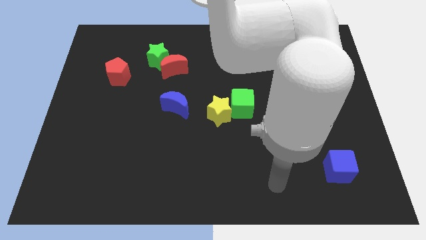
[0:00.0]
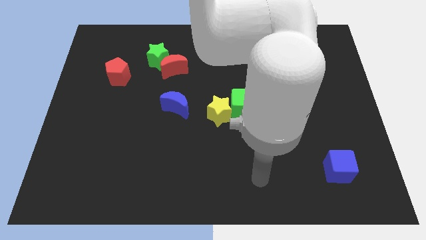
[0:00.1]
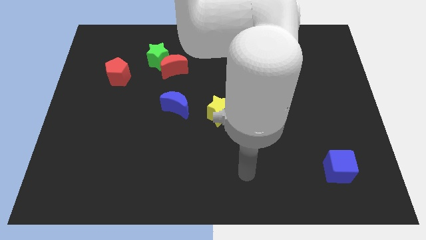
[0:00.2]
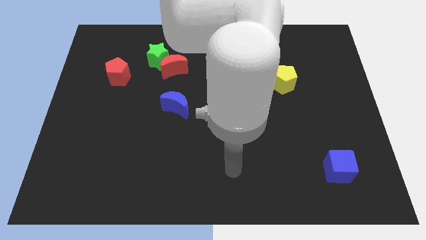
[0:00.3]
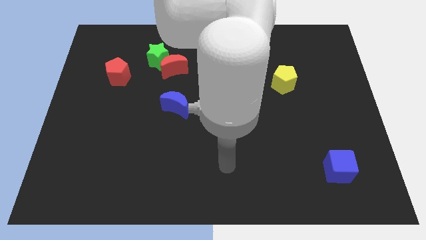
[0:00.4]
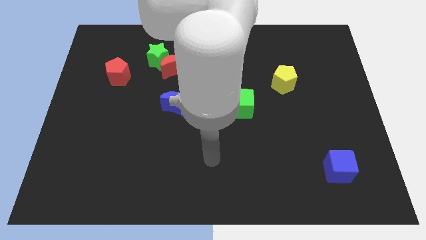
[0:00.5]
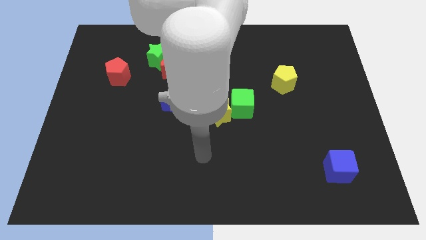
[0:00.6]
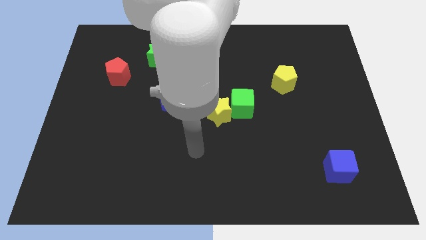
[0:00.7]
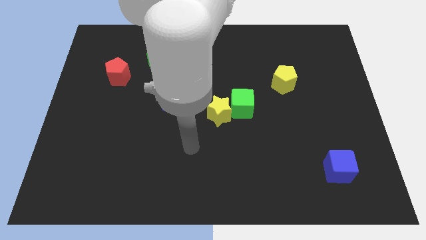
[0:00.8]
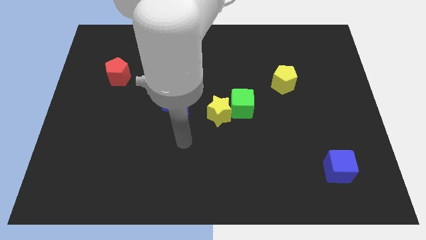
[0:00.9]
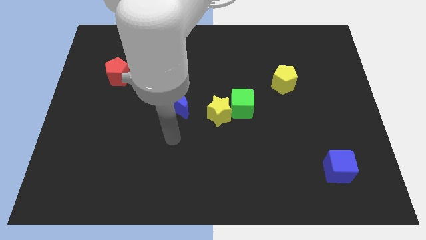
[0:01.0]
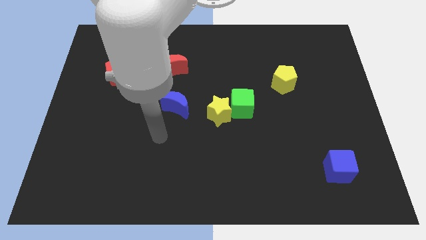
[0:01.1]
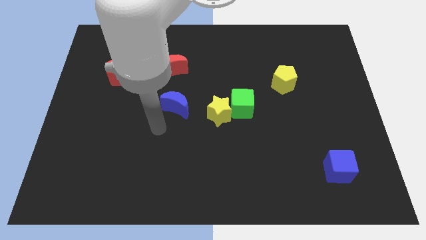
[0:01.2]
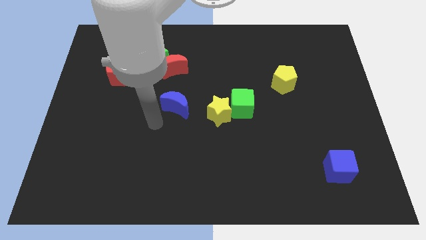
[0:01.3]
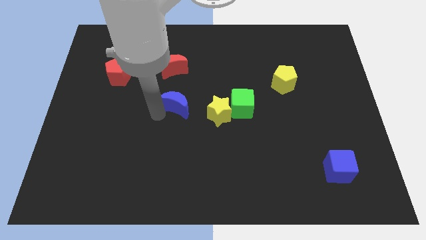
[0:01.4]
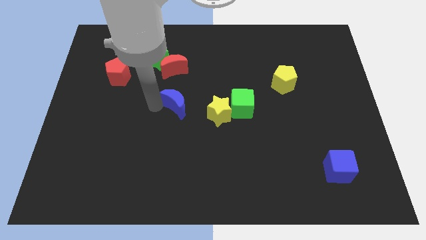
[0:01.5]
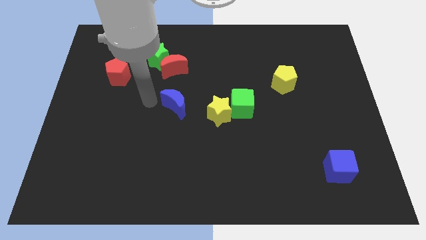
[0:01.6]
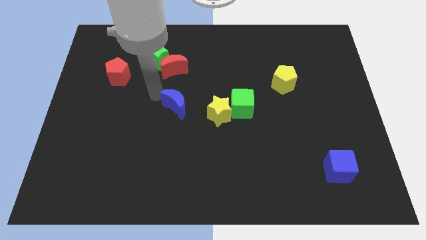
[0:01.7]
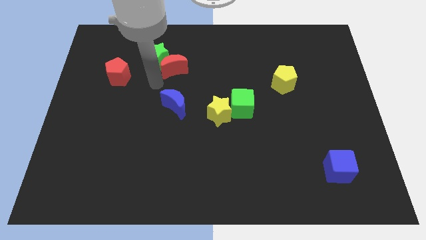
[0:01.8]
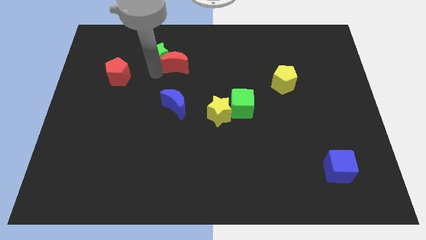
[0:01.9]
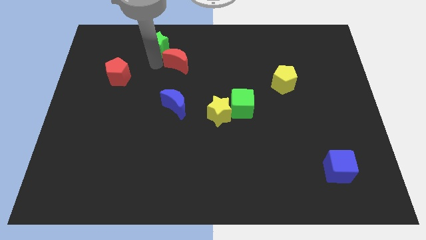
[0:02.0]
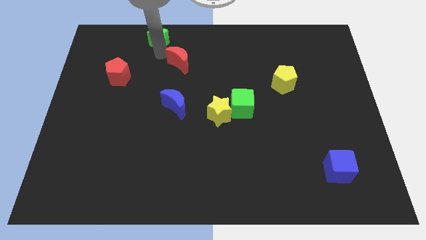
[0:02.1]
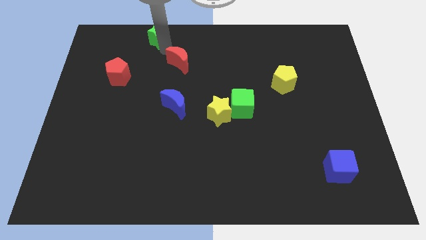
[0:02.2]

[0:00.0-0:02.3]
pull the red moon apart from the green star

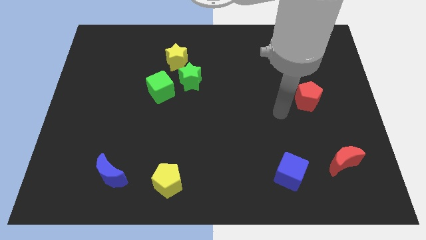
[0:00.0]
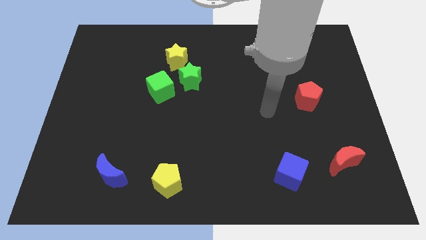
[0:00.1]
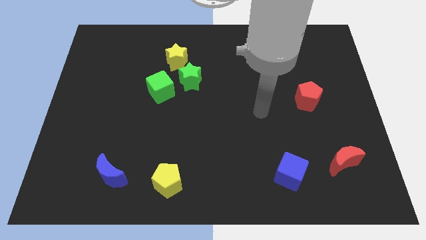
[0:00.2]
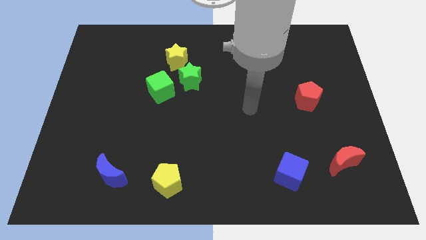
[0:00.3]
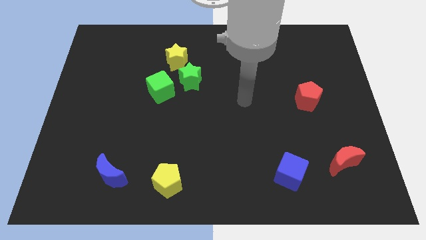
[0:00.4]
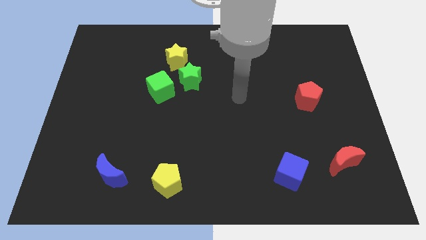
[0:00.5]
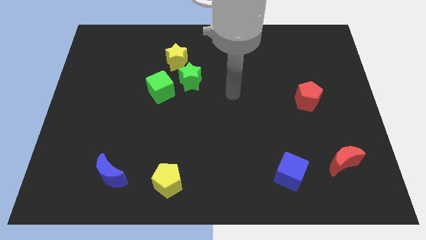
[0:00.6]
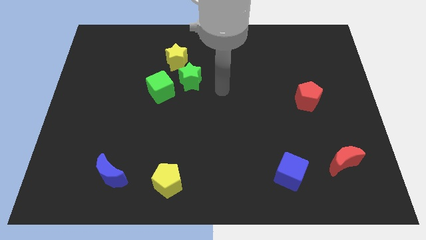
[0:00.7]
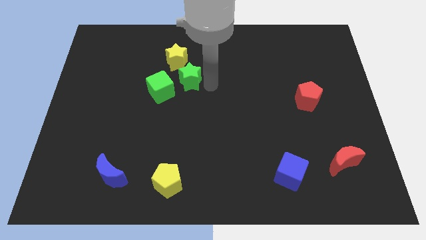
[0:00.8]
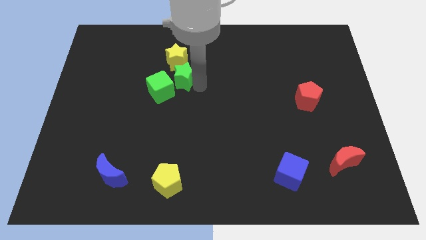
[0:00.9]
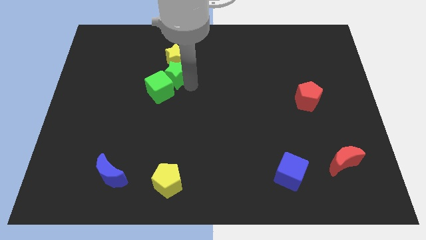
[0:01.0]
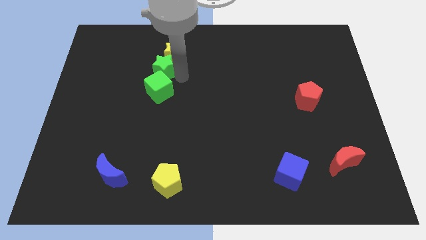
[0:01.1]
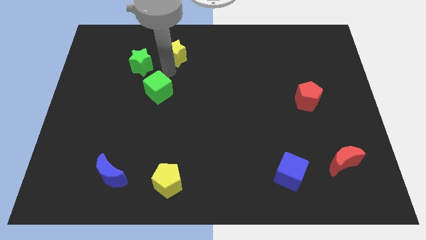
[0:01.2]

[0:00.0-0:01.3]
separate the green cube from the green star

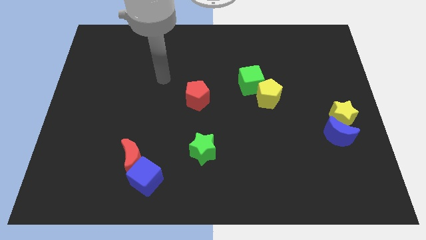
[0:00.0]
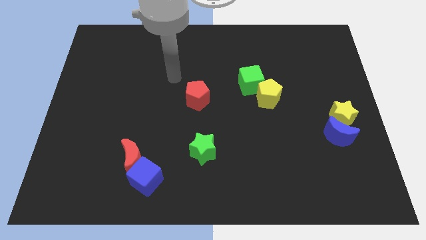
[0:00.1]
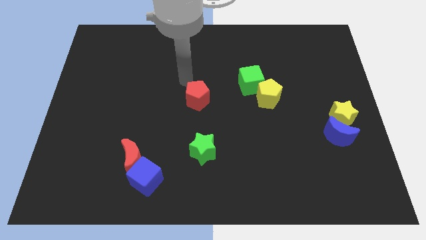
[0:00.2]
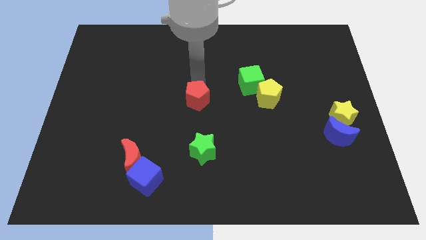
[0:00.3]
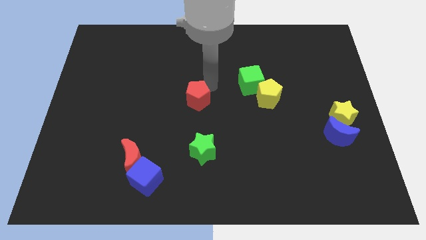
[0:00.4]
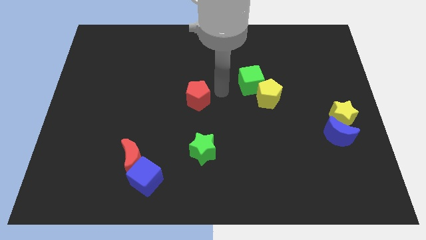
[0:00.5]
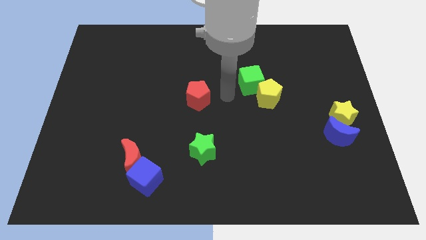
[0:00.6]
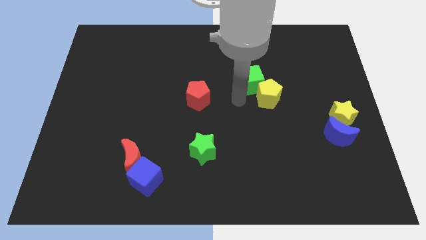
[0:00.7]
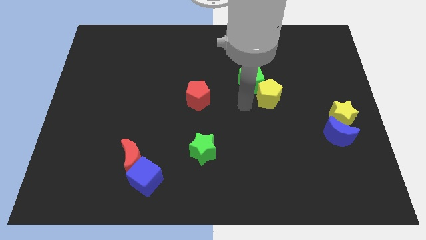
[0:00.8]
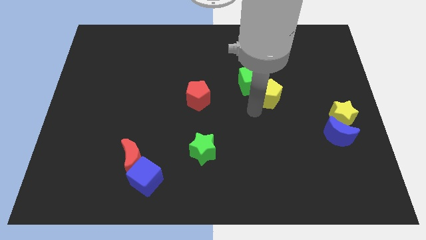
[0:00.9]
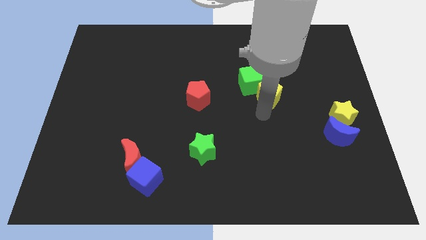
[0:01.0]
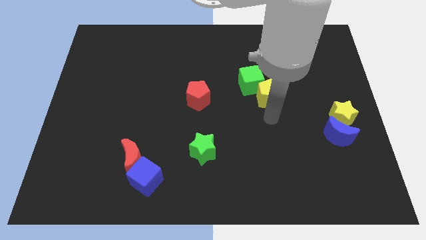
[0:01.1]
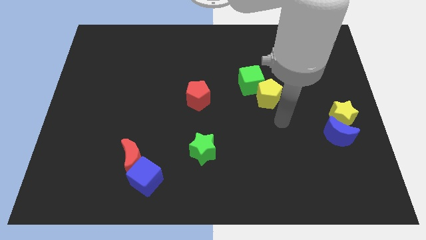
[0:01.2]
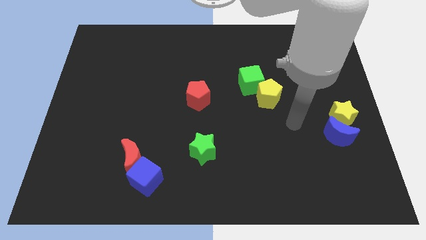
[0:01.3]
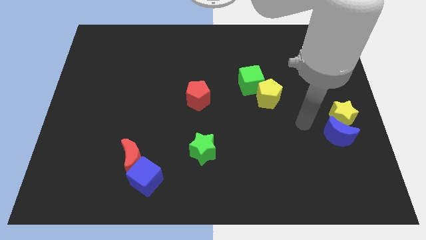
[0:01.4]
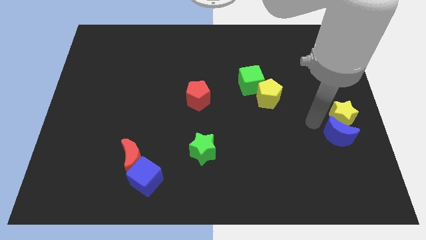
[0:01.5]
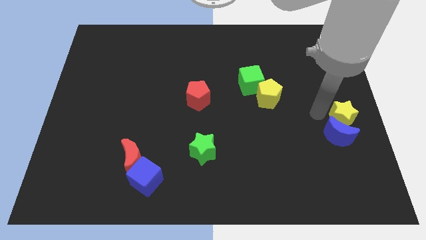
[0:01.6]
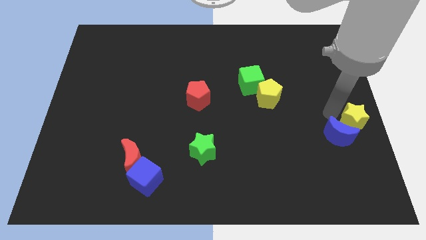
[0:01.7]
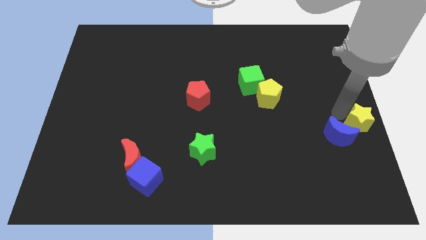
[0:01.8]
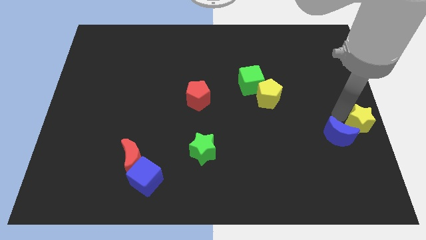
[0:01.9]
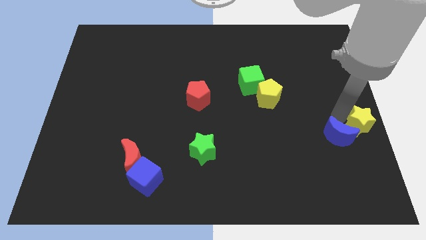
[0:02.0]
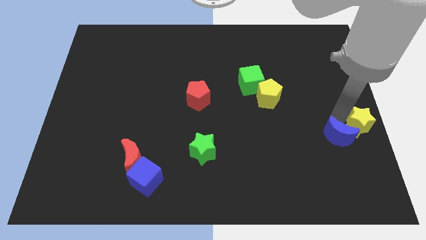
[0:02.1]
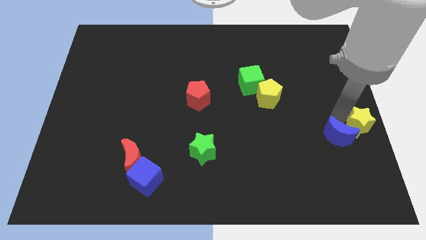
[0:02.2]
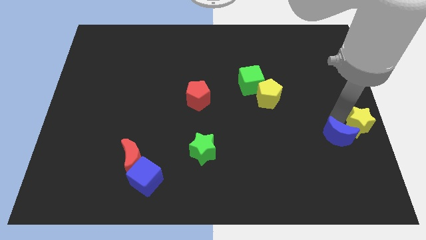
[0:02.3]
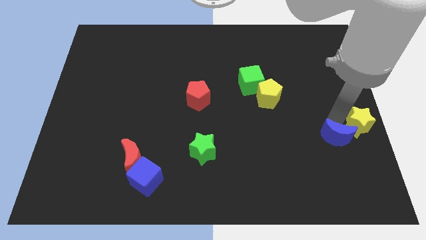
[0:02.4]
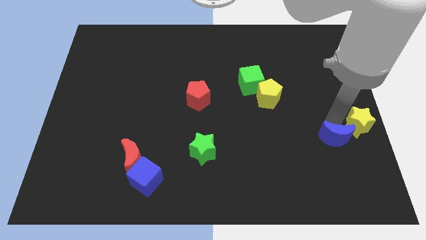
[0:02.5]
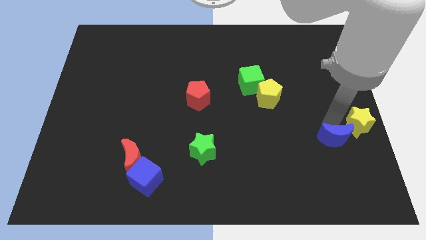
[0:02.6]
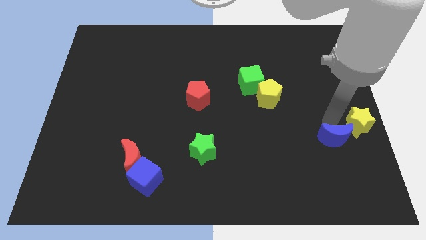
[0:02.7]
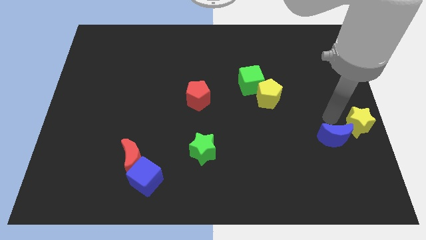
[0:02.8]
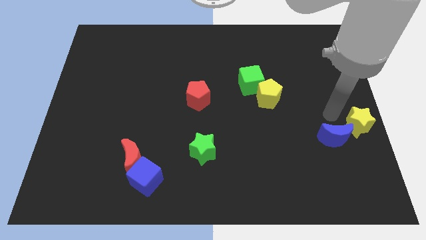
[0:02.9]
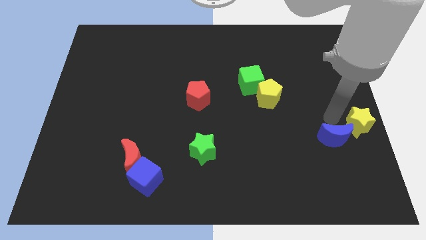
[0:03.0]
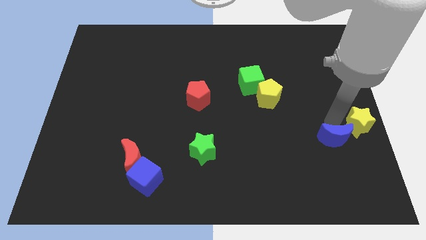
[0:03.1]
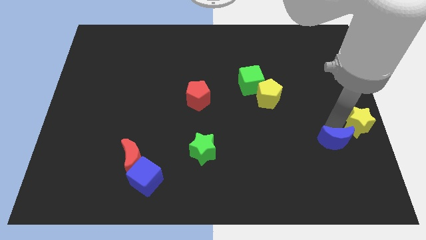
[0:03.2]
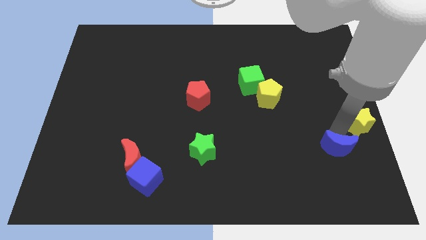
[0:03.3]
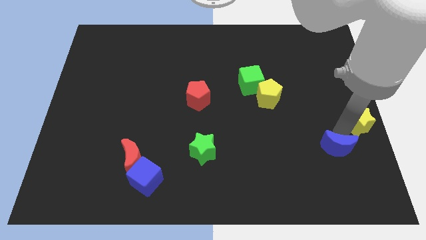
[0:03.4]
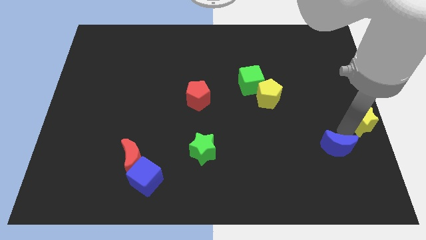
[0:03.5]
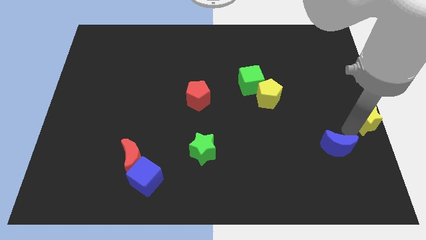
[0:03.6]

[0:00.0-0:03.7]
separate the blue moon from the yellow star

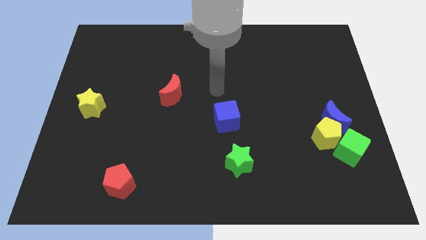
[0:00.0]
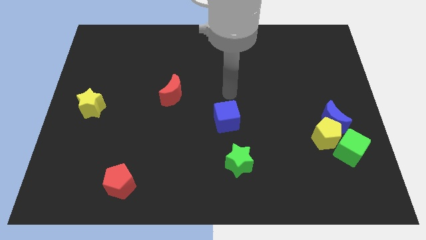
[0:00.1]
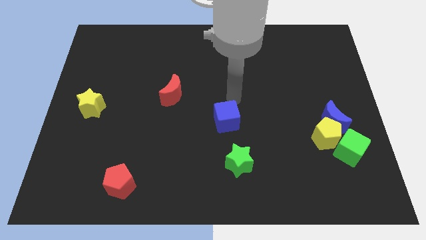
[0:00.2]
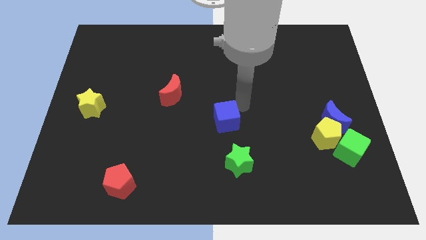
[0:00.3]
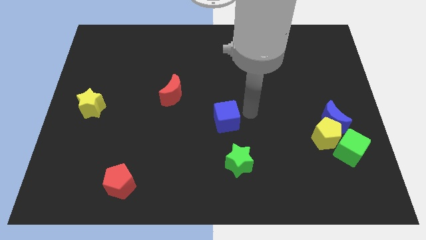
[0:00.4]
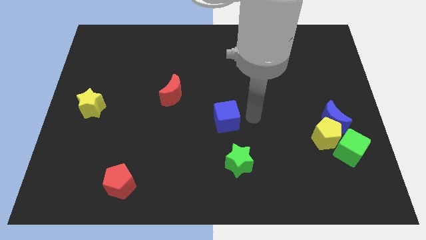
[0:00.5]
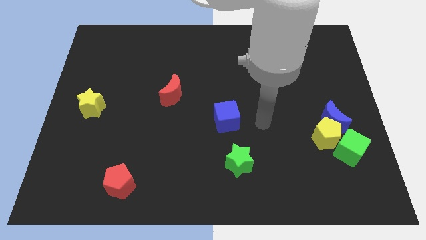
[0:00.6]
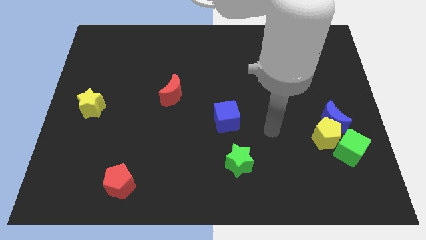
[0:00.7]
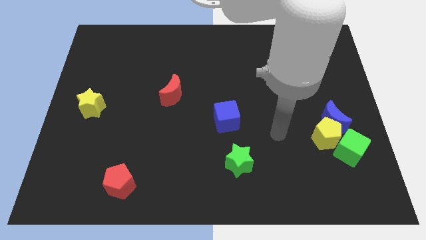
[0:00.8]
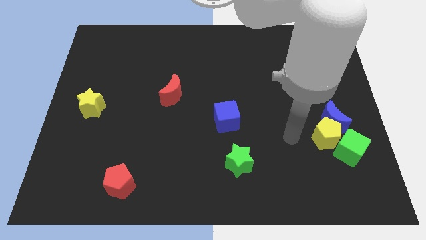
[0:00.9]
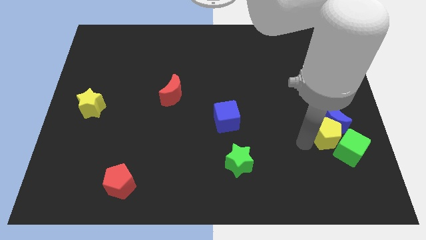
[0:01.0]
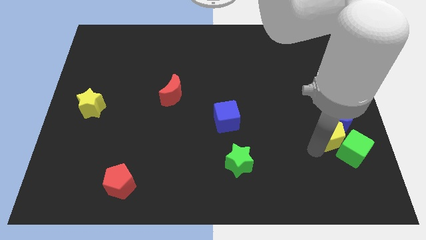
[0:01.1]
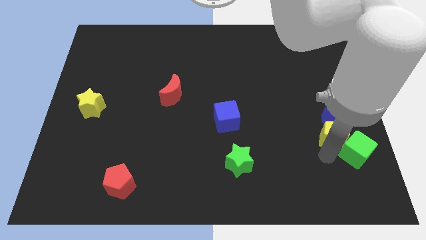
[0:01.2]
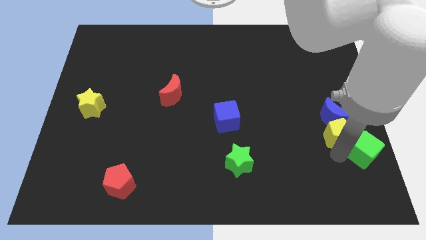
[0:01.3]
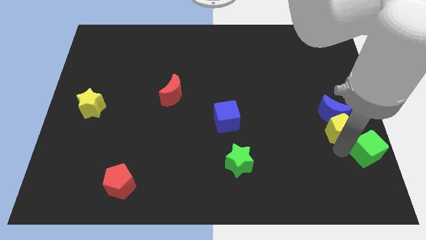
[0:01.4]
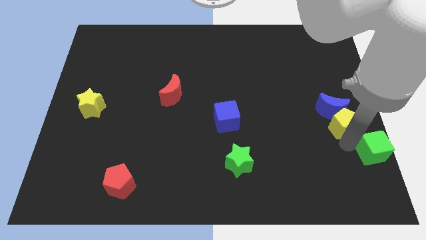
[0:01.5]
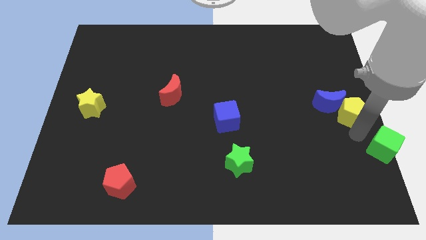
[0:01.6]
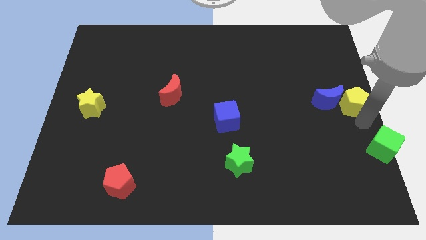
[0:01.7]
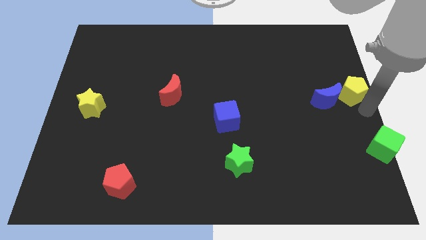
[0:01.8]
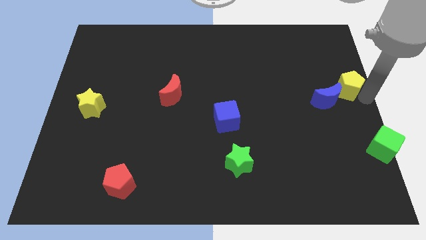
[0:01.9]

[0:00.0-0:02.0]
pull the yellow pentagon apart from the blue moon and green cube

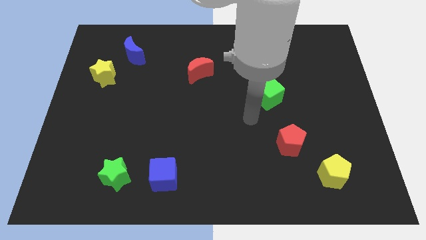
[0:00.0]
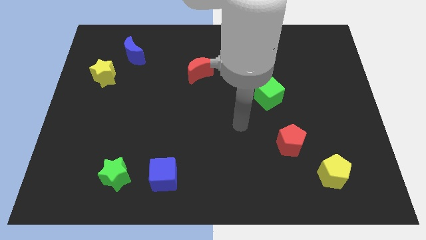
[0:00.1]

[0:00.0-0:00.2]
separate the blue cube from the green star
